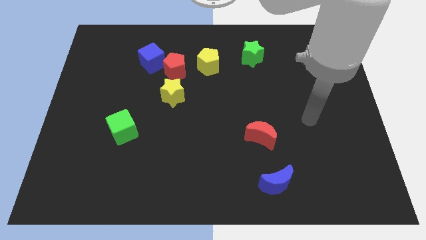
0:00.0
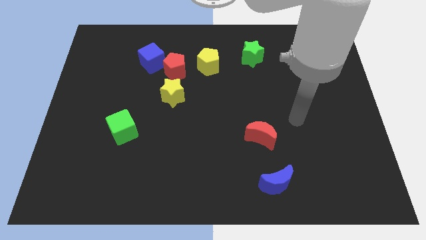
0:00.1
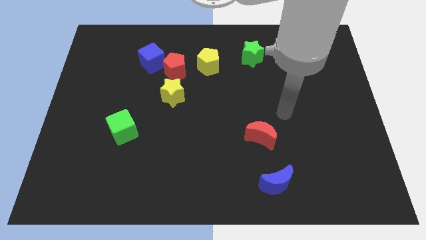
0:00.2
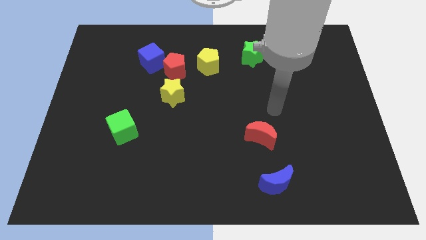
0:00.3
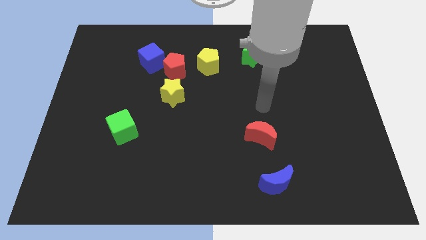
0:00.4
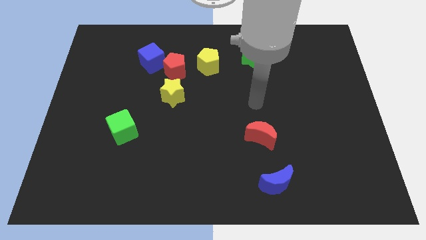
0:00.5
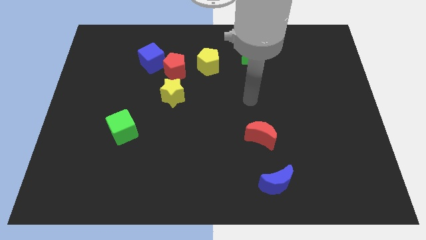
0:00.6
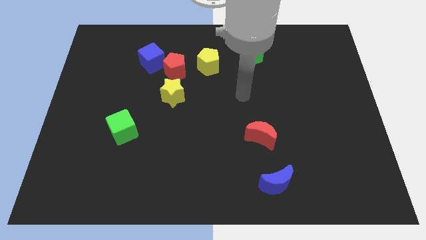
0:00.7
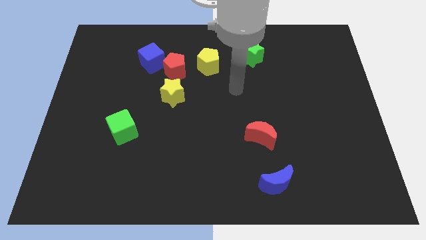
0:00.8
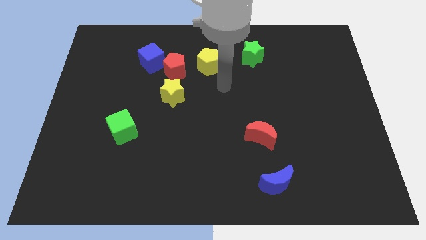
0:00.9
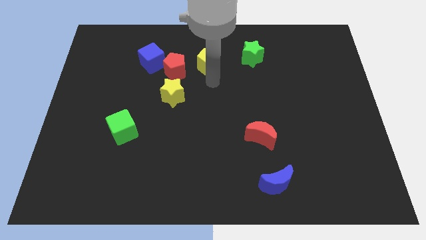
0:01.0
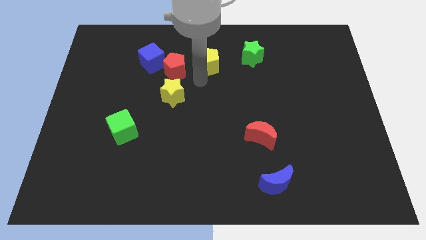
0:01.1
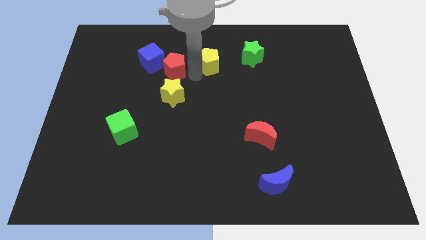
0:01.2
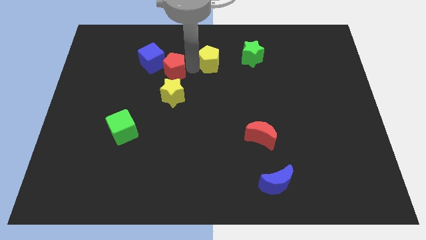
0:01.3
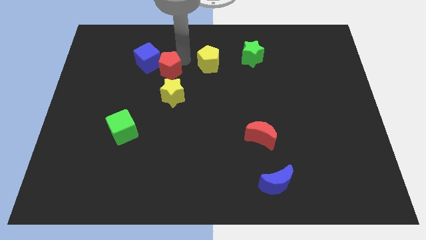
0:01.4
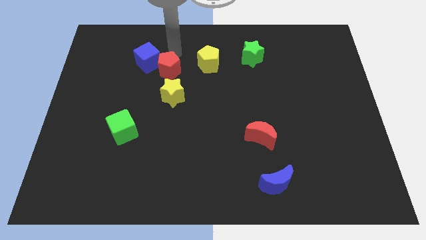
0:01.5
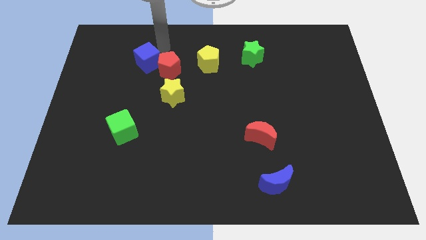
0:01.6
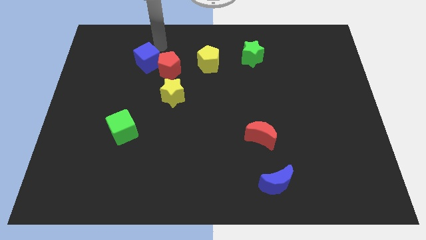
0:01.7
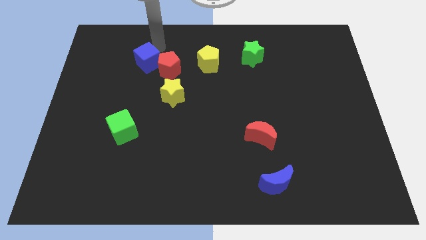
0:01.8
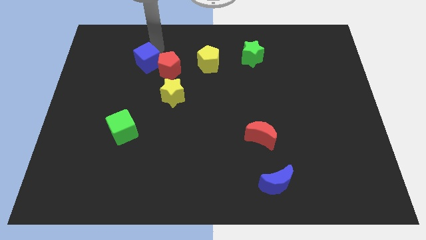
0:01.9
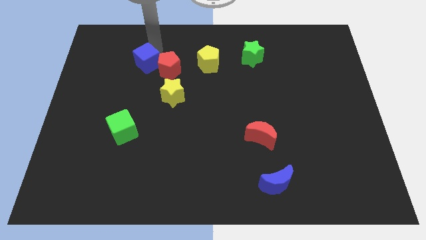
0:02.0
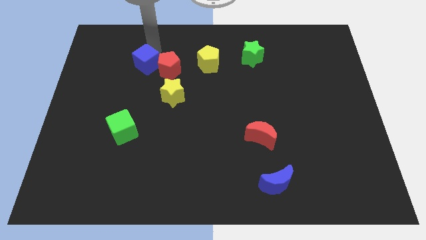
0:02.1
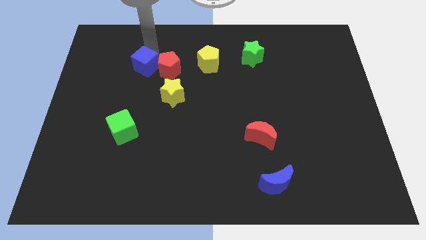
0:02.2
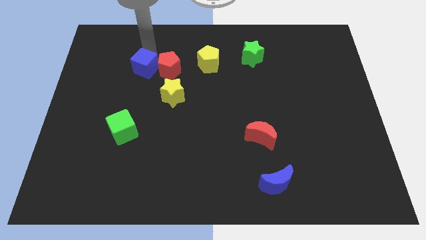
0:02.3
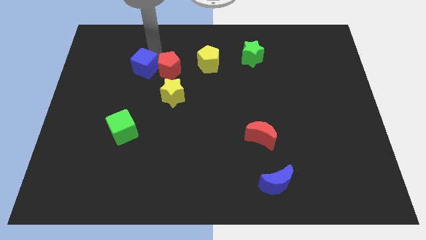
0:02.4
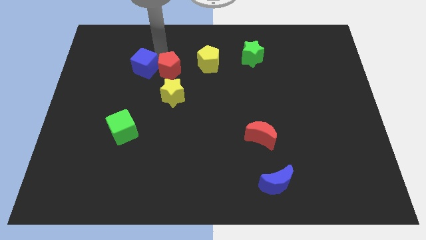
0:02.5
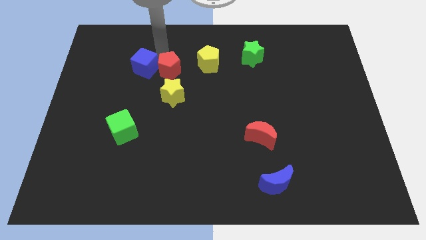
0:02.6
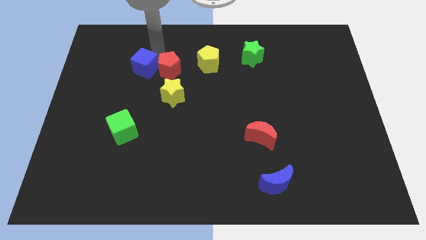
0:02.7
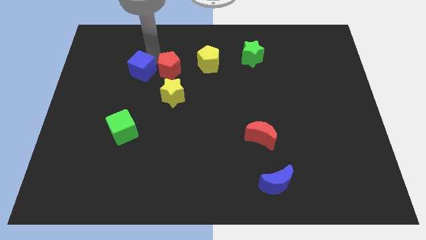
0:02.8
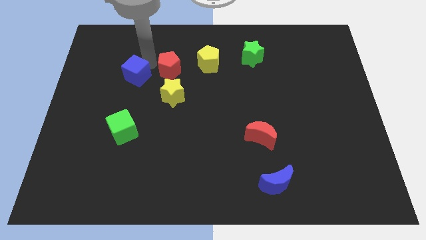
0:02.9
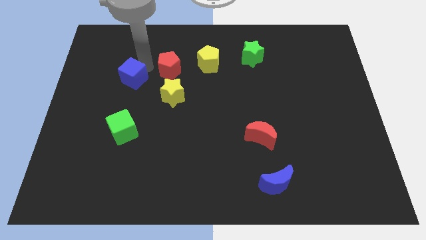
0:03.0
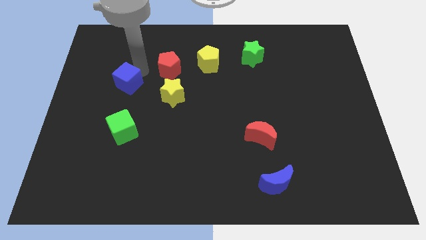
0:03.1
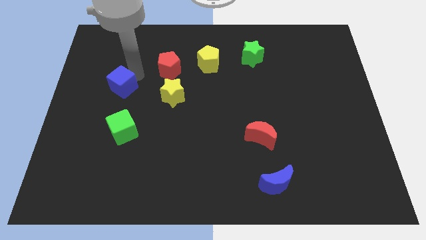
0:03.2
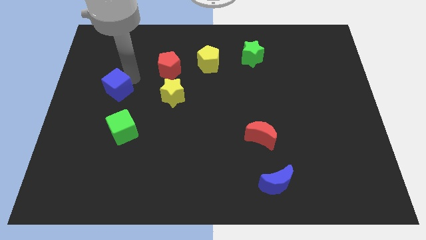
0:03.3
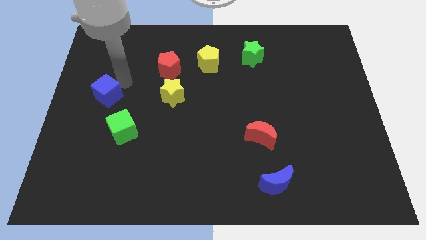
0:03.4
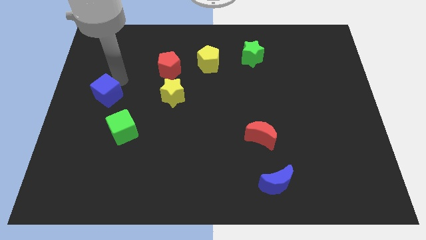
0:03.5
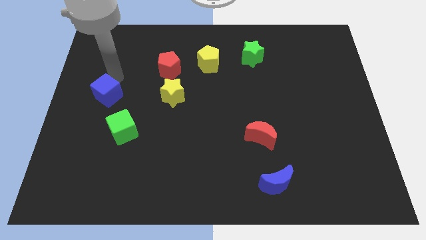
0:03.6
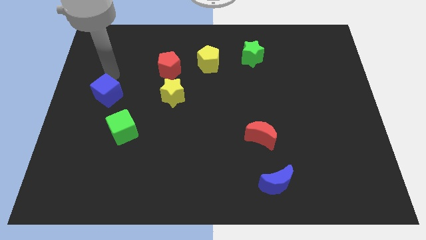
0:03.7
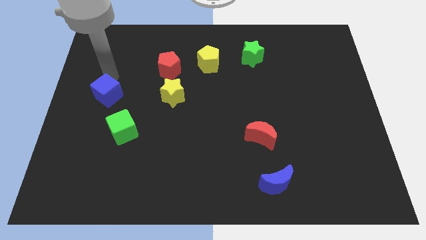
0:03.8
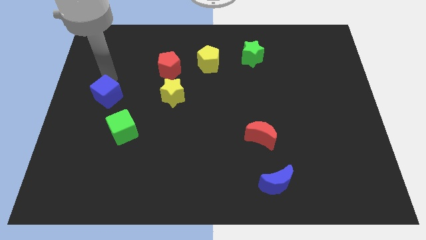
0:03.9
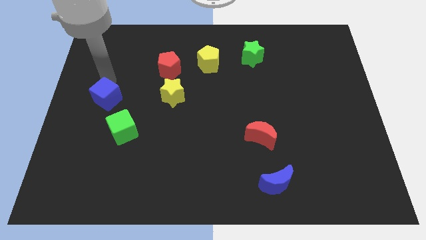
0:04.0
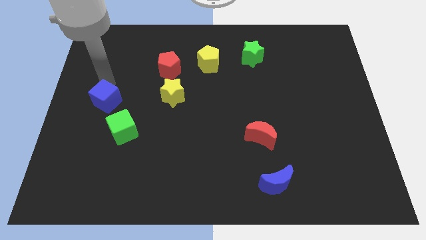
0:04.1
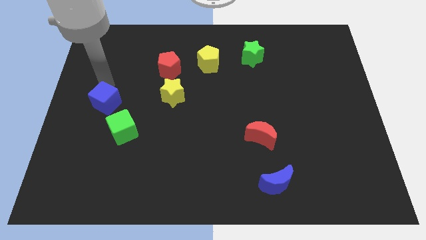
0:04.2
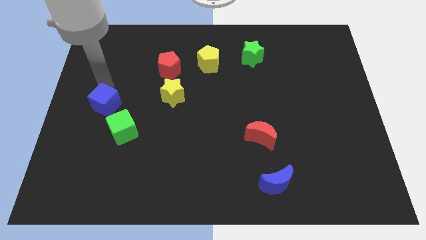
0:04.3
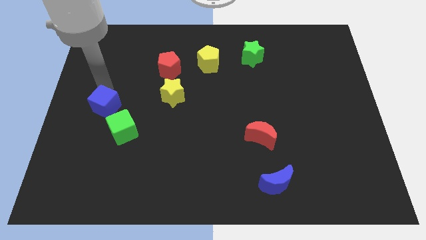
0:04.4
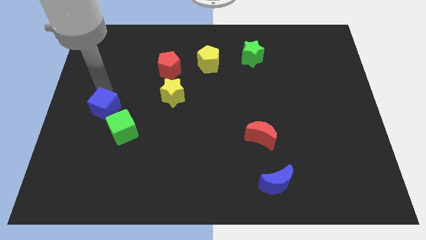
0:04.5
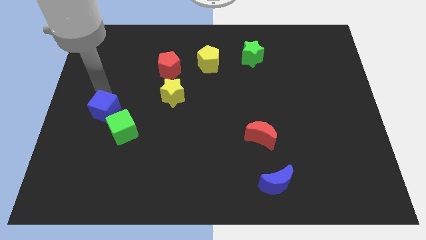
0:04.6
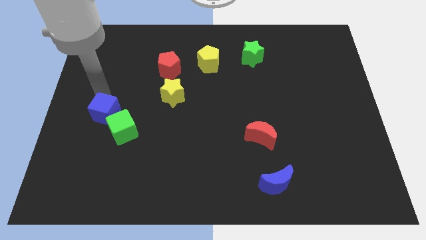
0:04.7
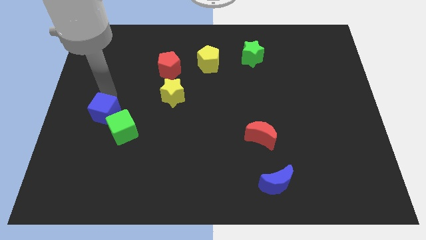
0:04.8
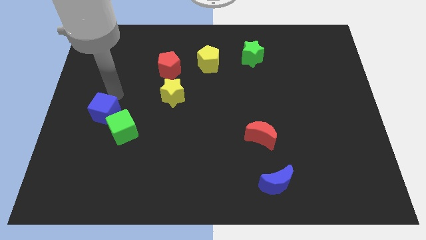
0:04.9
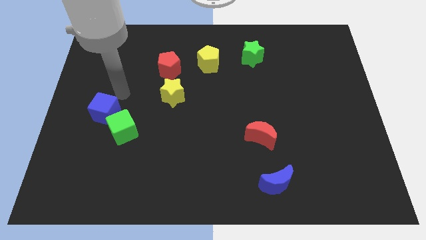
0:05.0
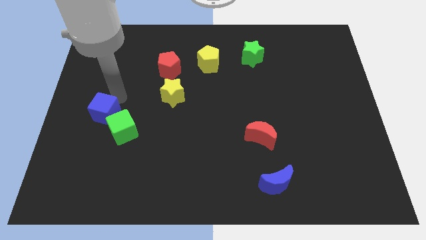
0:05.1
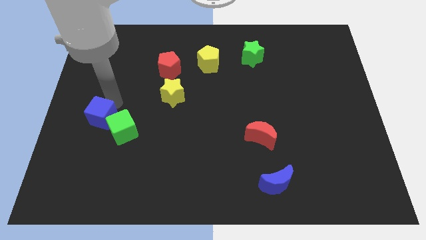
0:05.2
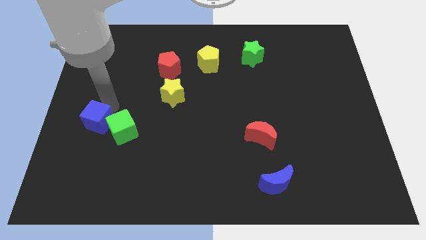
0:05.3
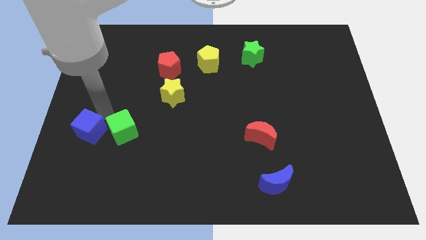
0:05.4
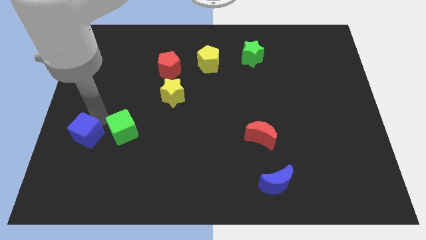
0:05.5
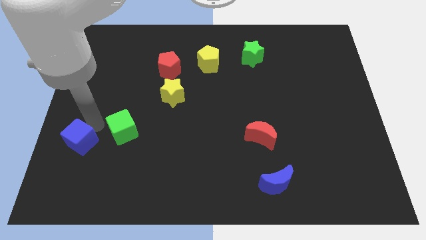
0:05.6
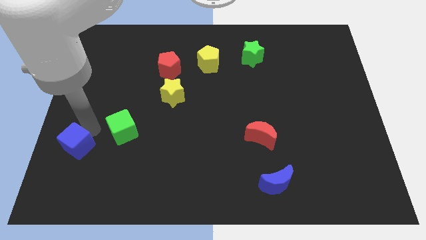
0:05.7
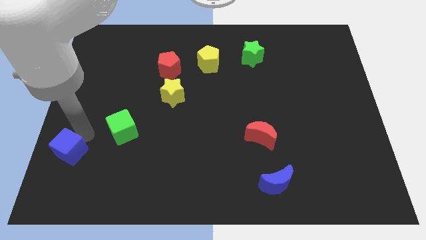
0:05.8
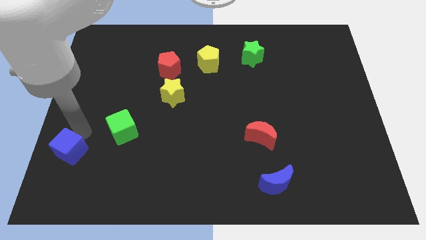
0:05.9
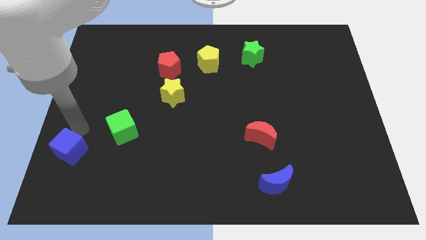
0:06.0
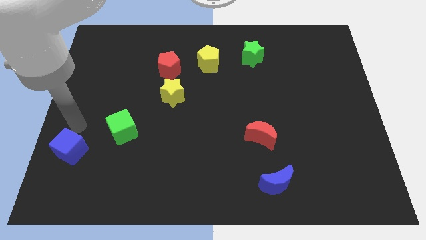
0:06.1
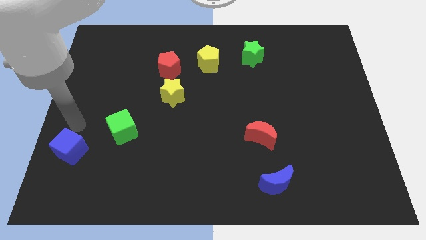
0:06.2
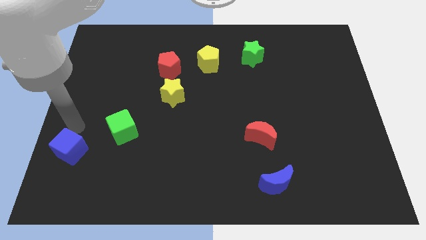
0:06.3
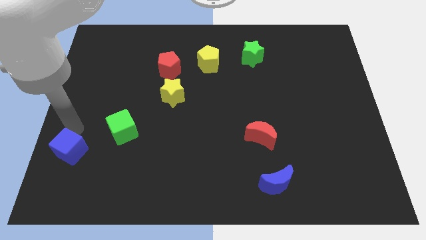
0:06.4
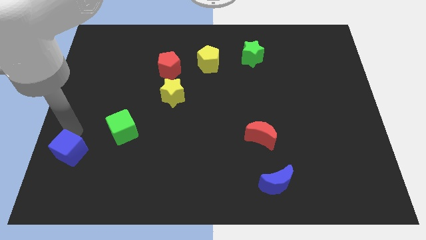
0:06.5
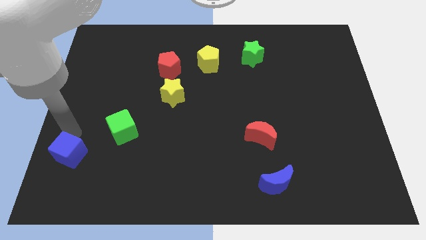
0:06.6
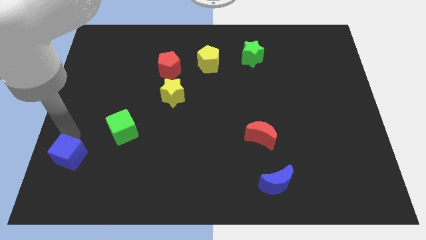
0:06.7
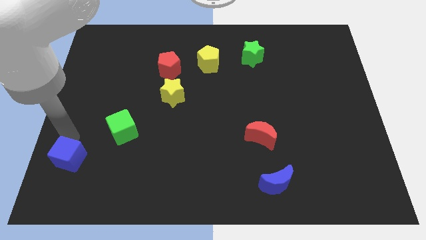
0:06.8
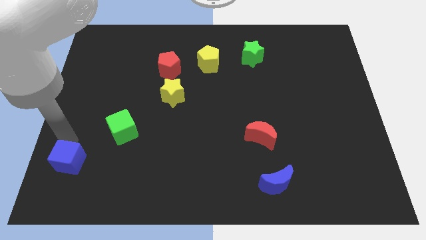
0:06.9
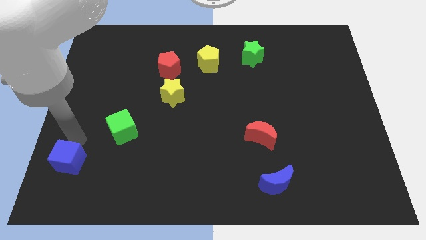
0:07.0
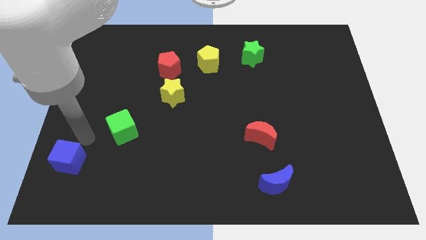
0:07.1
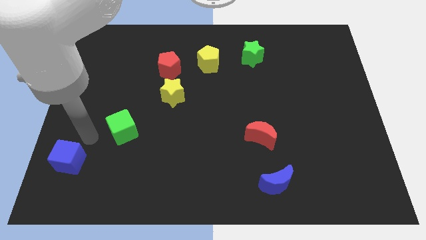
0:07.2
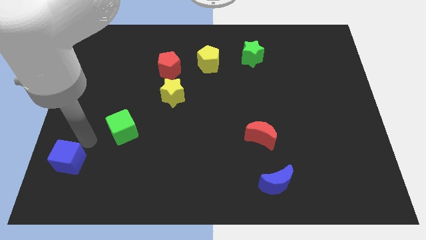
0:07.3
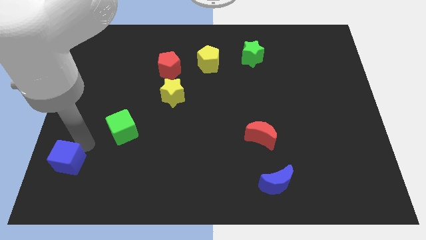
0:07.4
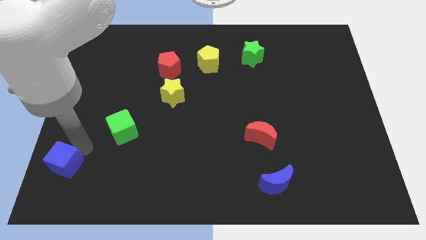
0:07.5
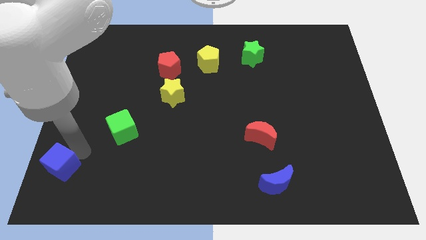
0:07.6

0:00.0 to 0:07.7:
put the blue cube to the bottom left corner
